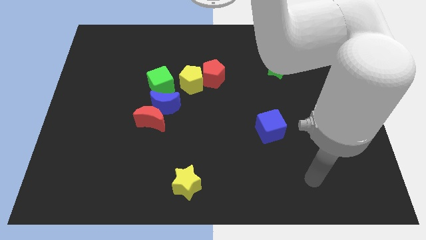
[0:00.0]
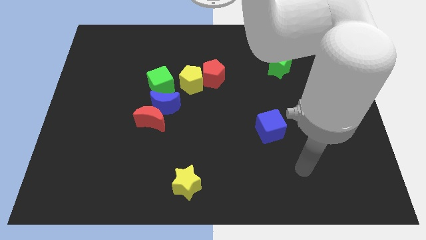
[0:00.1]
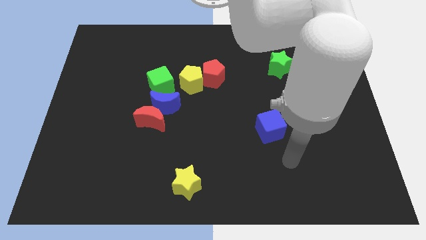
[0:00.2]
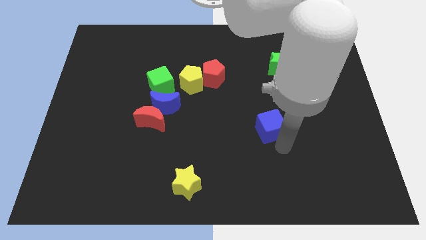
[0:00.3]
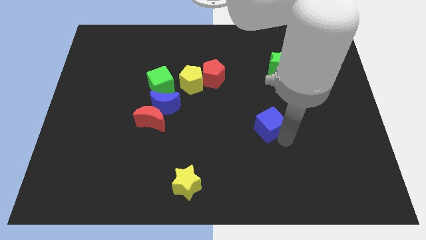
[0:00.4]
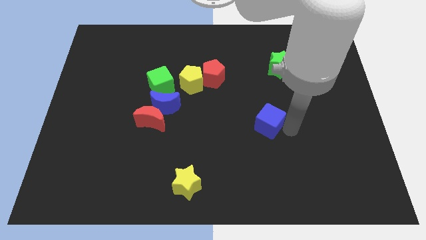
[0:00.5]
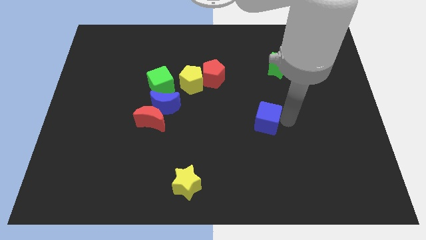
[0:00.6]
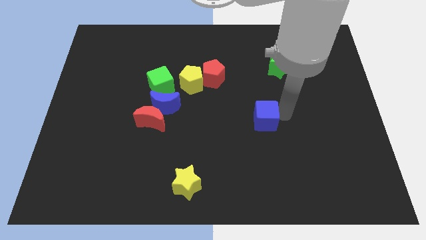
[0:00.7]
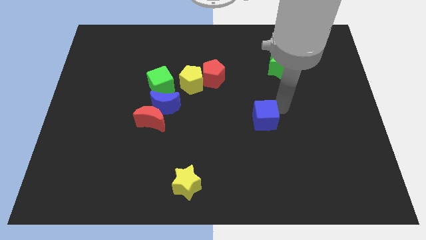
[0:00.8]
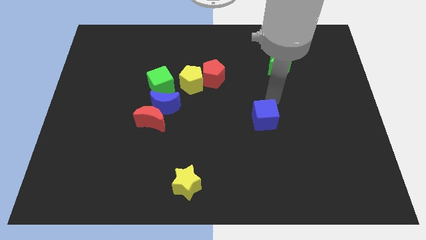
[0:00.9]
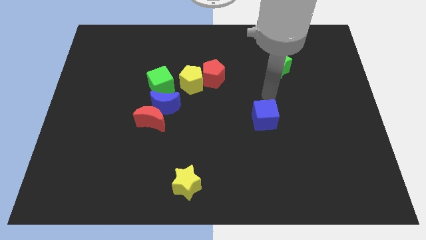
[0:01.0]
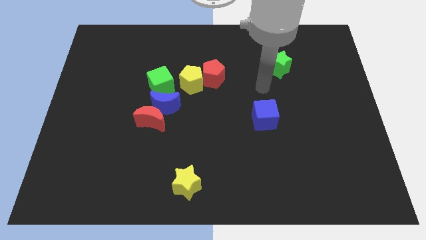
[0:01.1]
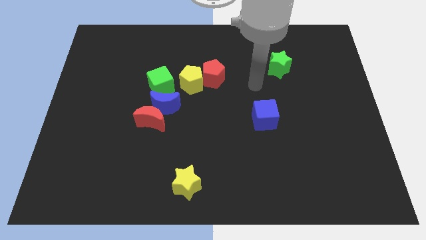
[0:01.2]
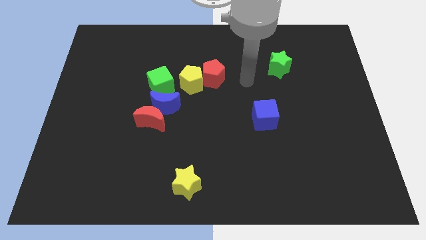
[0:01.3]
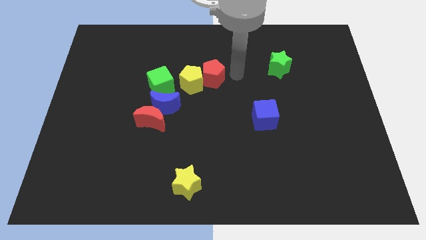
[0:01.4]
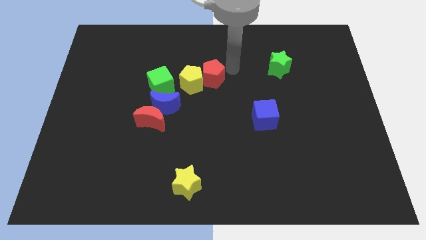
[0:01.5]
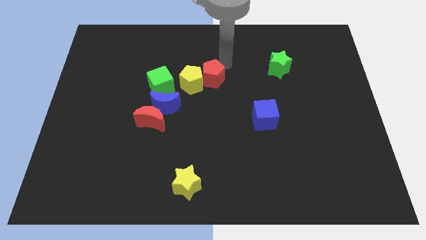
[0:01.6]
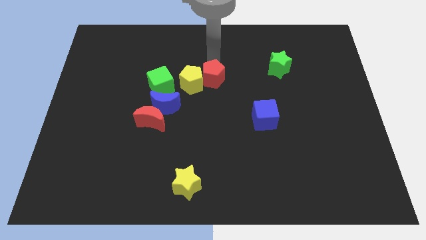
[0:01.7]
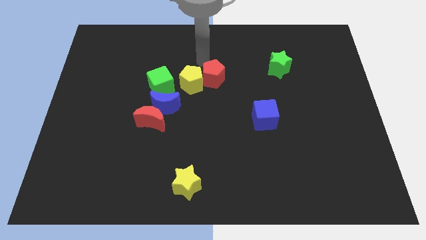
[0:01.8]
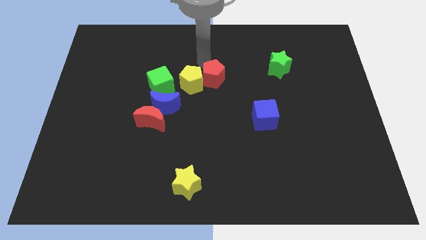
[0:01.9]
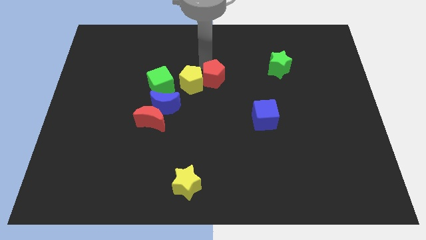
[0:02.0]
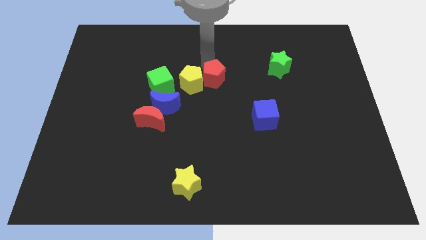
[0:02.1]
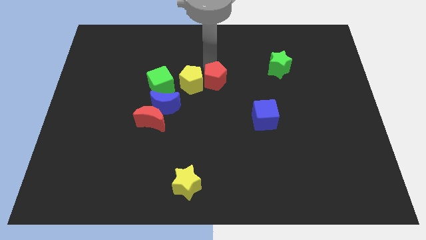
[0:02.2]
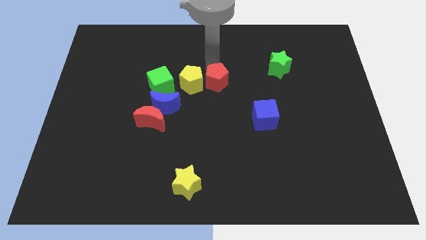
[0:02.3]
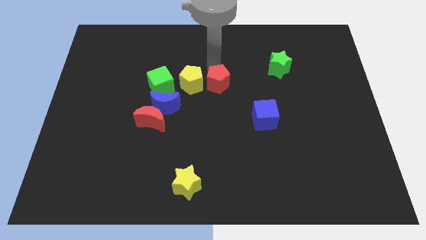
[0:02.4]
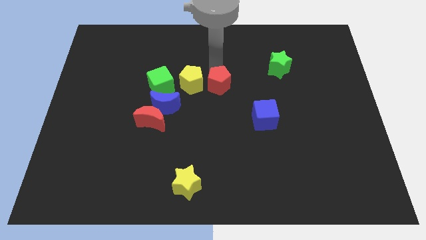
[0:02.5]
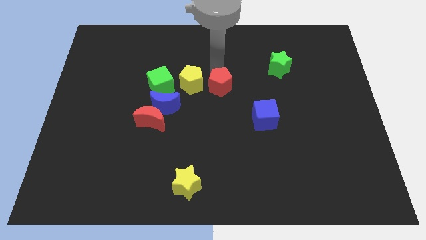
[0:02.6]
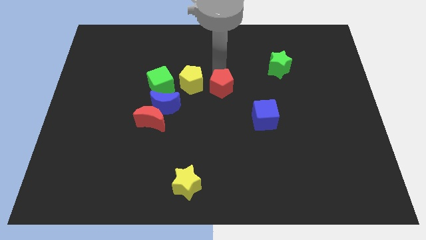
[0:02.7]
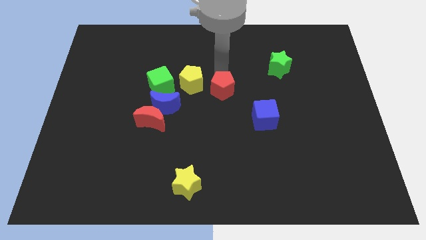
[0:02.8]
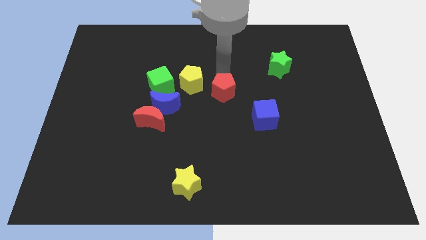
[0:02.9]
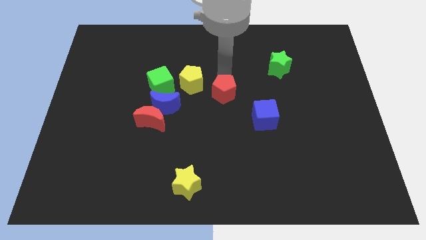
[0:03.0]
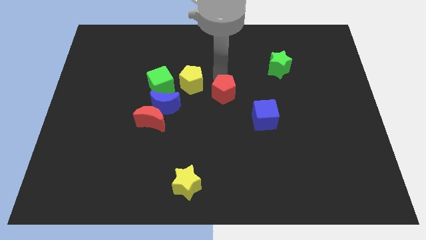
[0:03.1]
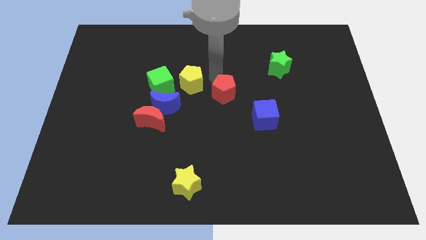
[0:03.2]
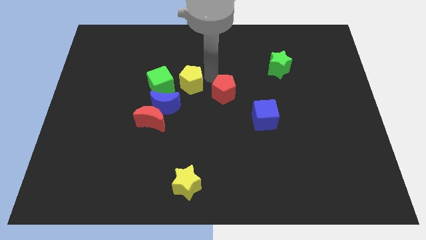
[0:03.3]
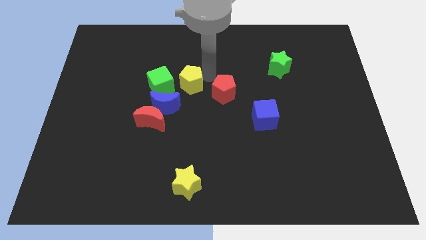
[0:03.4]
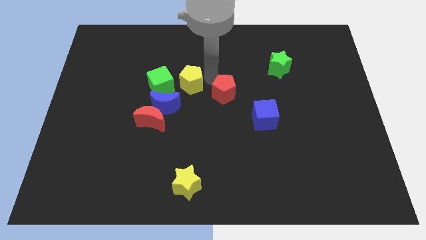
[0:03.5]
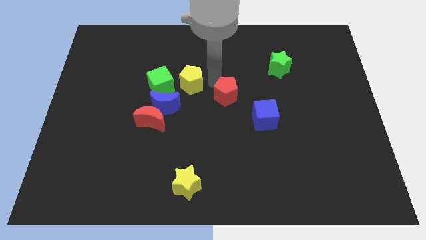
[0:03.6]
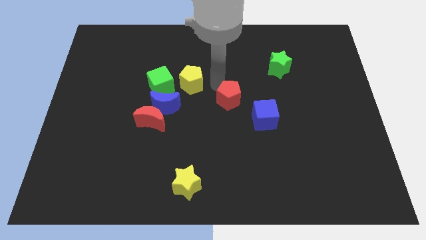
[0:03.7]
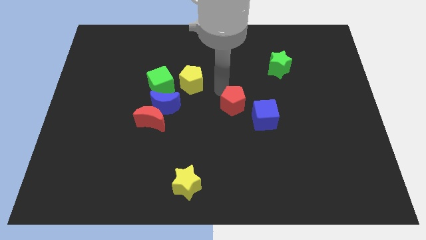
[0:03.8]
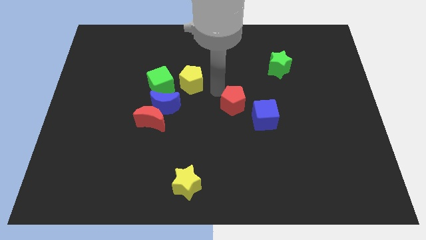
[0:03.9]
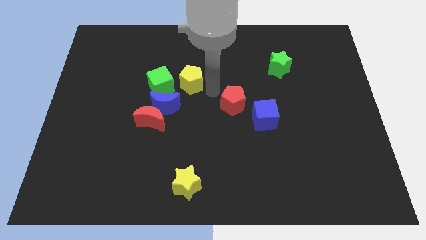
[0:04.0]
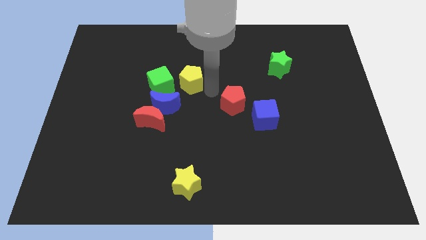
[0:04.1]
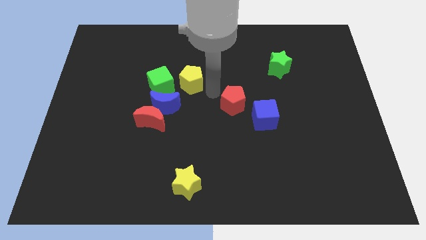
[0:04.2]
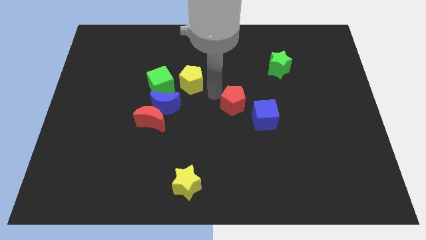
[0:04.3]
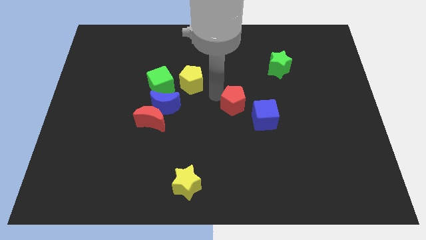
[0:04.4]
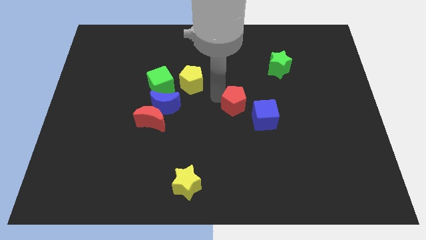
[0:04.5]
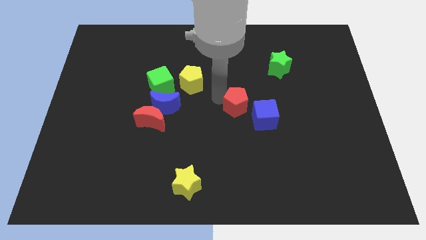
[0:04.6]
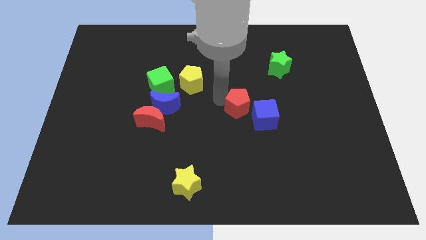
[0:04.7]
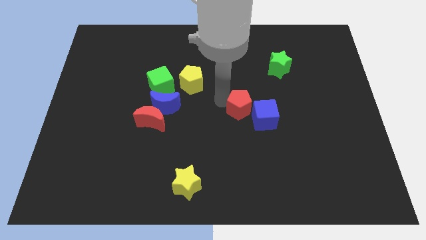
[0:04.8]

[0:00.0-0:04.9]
push the red pentagon next to the blue cube

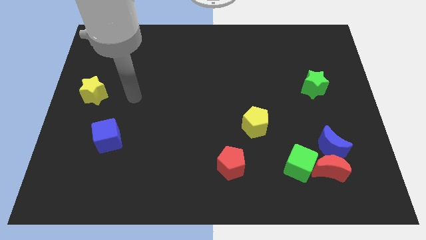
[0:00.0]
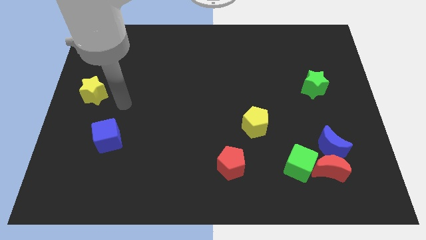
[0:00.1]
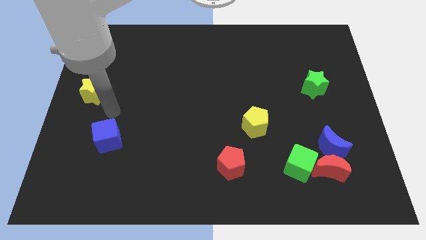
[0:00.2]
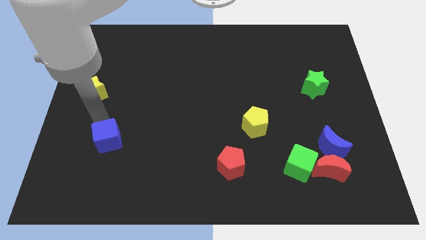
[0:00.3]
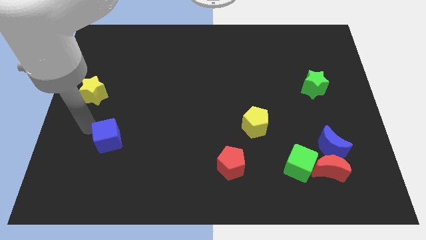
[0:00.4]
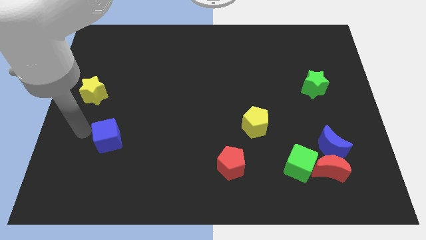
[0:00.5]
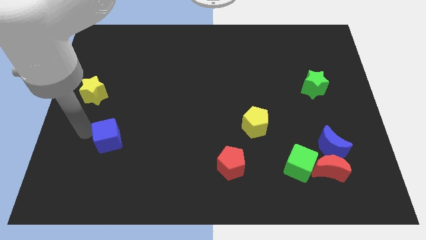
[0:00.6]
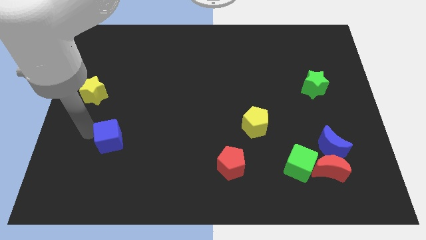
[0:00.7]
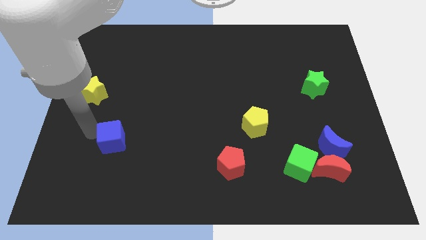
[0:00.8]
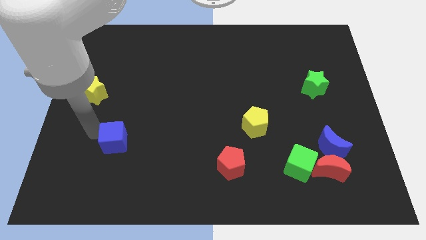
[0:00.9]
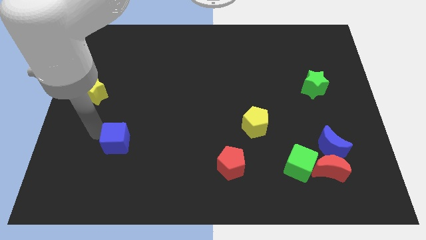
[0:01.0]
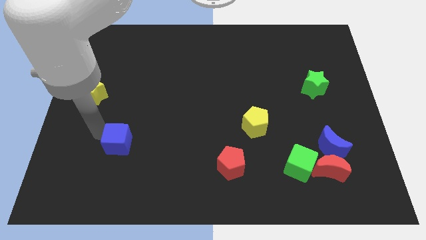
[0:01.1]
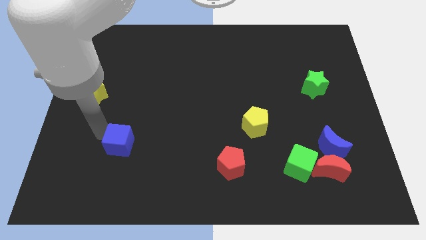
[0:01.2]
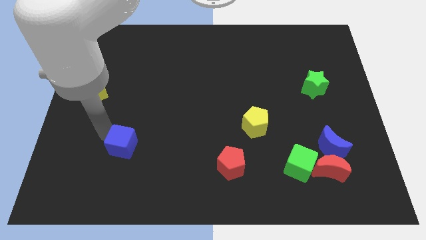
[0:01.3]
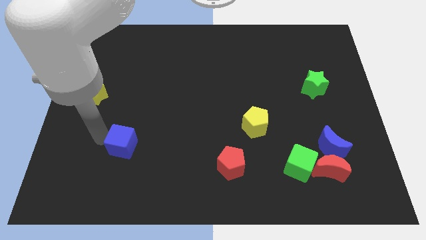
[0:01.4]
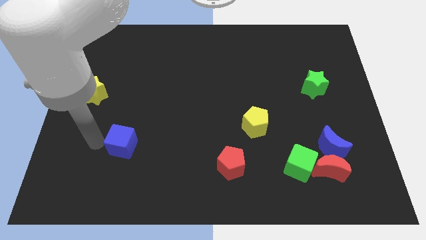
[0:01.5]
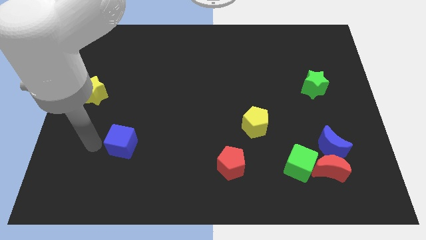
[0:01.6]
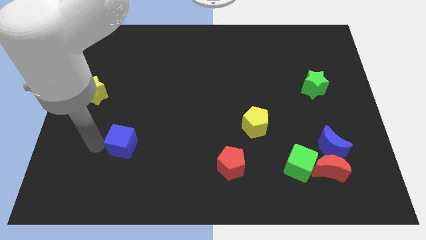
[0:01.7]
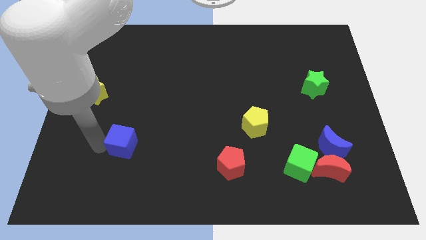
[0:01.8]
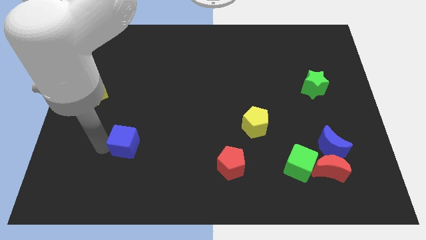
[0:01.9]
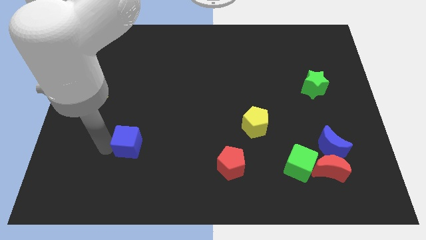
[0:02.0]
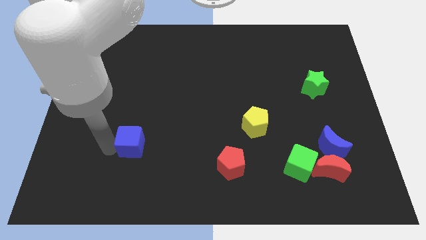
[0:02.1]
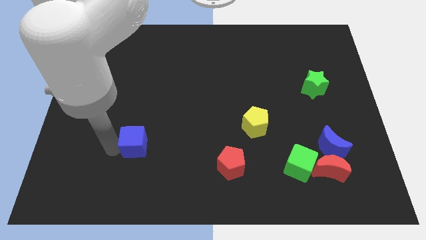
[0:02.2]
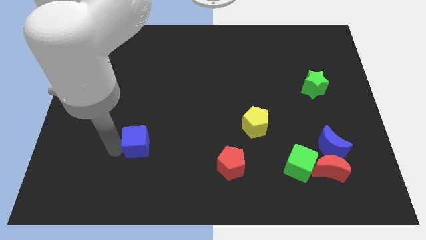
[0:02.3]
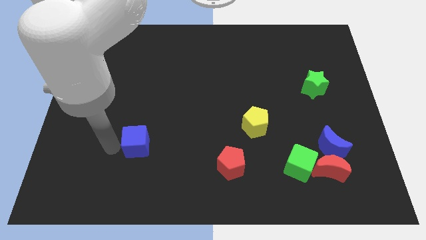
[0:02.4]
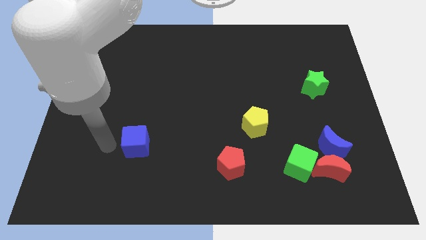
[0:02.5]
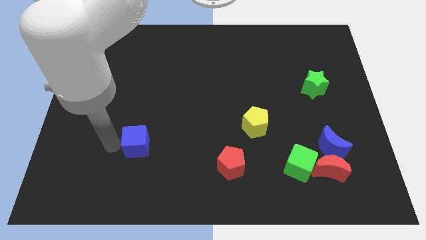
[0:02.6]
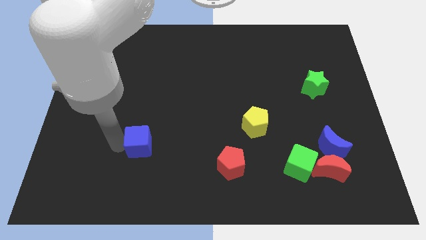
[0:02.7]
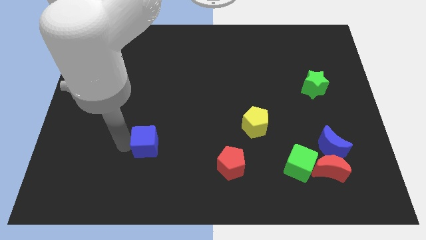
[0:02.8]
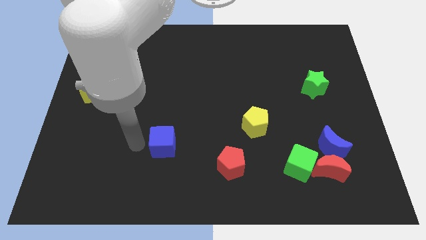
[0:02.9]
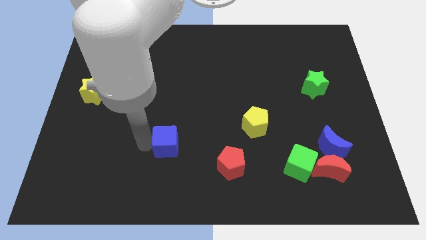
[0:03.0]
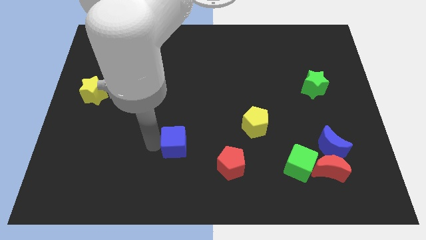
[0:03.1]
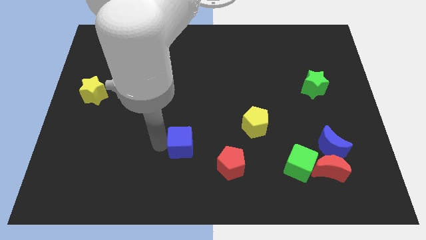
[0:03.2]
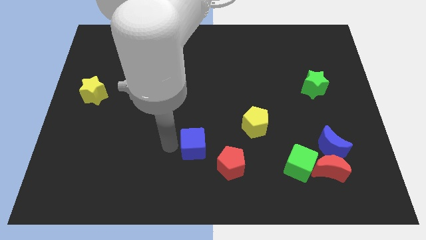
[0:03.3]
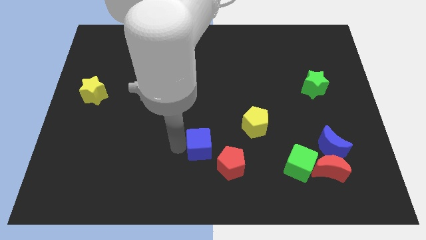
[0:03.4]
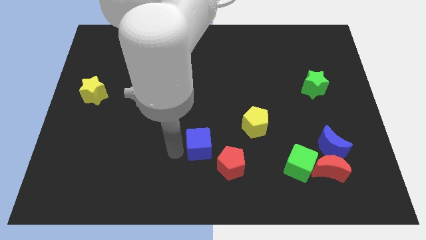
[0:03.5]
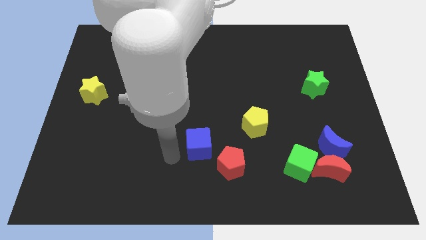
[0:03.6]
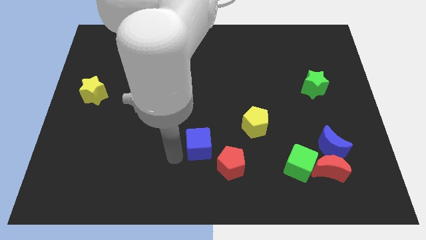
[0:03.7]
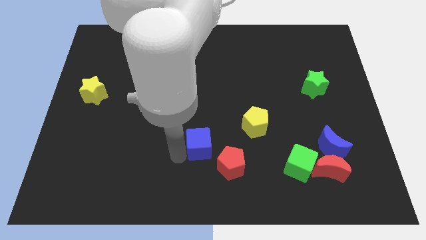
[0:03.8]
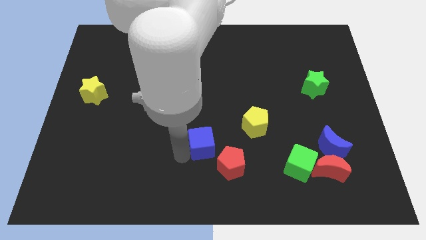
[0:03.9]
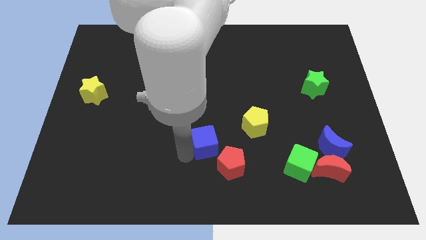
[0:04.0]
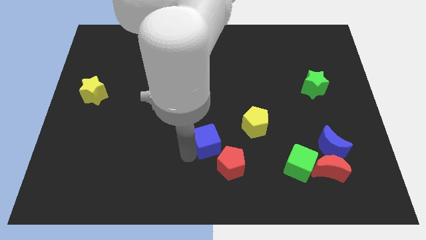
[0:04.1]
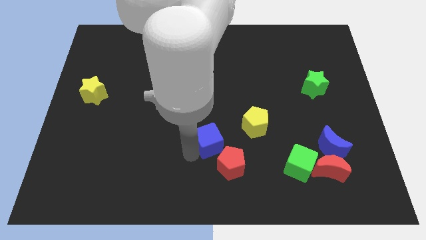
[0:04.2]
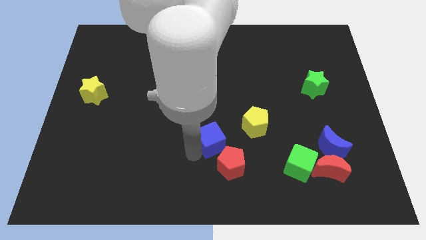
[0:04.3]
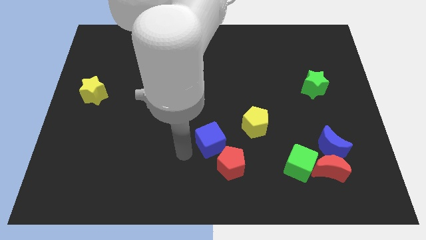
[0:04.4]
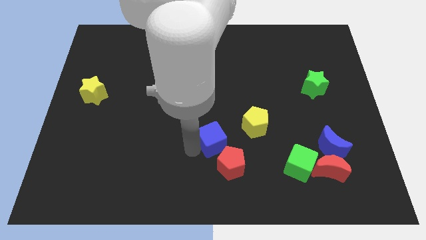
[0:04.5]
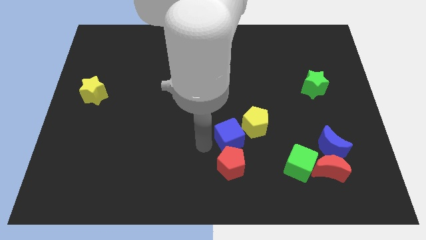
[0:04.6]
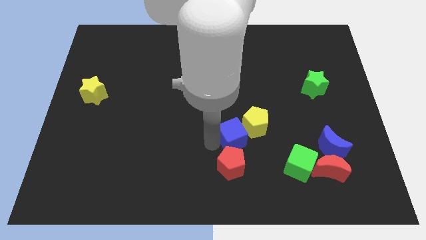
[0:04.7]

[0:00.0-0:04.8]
move the blue cube next to the yellow pentagon
